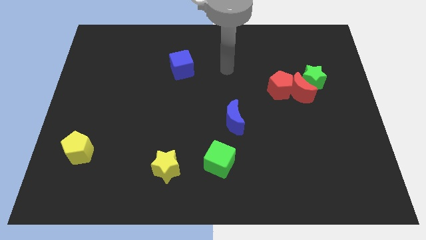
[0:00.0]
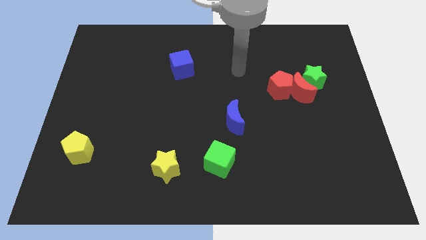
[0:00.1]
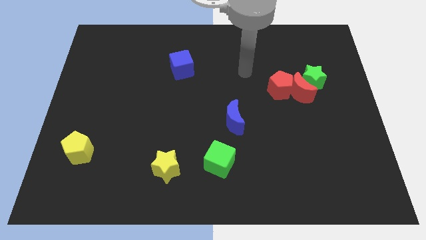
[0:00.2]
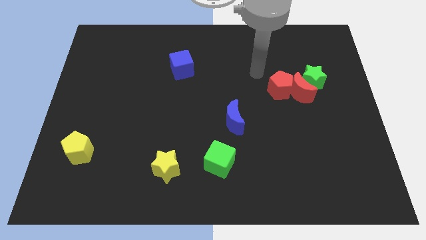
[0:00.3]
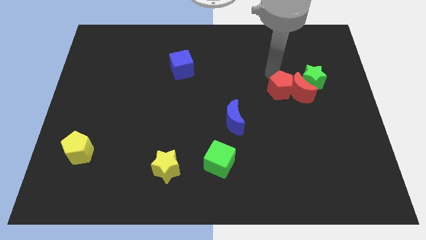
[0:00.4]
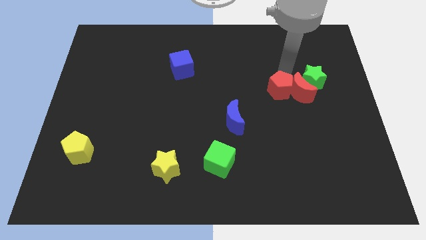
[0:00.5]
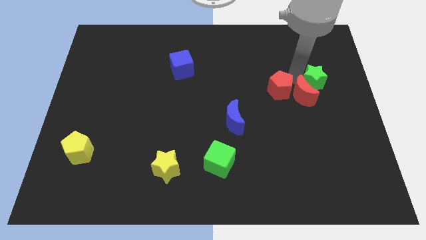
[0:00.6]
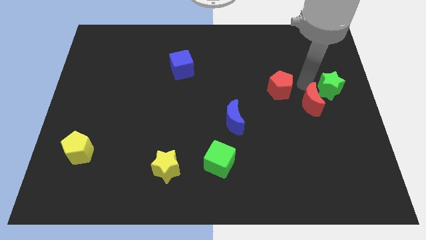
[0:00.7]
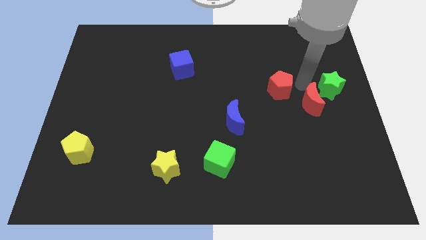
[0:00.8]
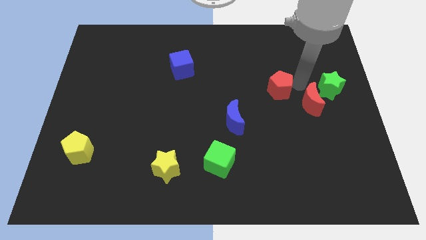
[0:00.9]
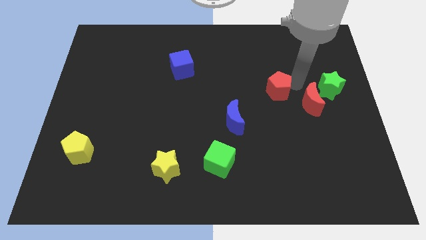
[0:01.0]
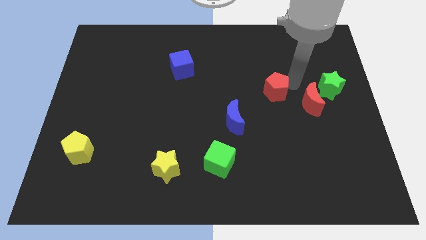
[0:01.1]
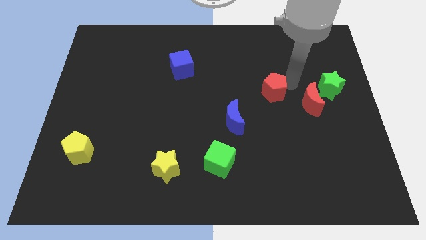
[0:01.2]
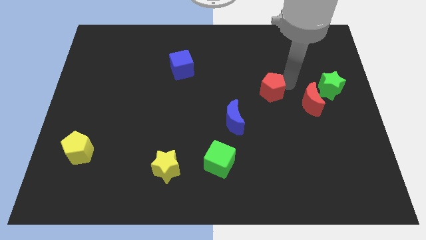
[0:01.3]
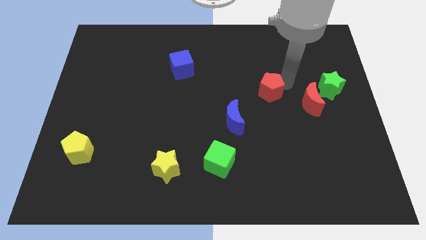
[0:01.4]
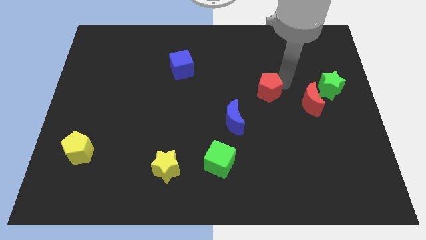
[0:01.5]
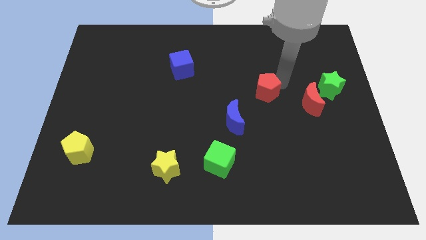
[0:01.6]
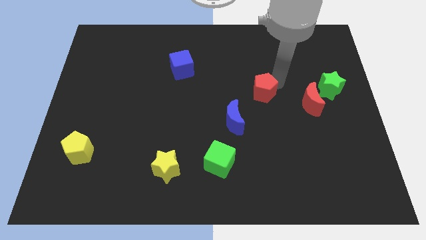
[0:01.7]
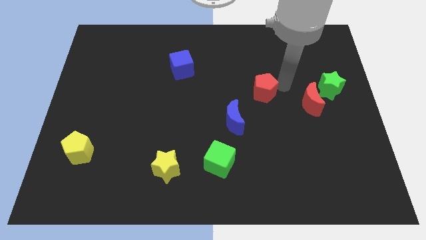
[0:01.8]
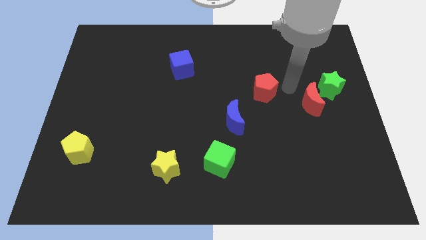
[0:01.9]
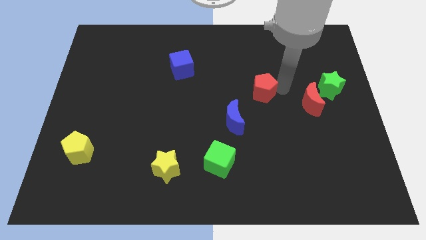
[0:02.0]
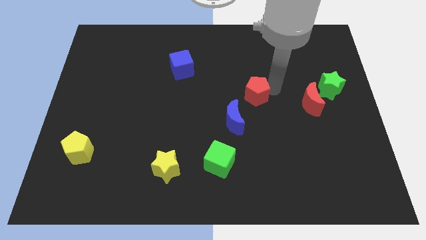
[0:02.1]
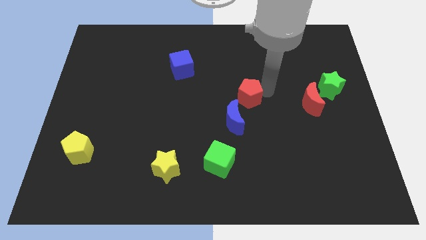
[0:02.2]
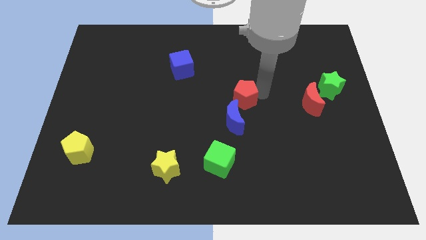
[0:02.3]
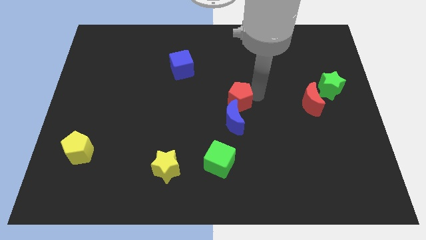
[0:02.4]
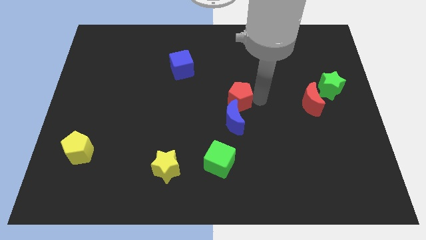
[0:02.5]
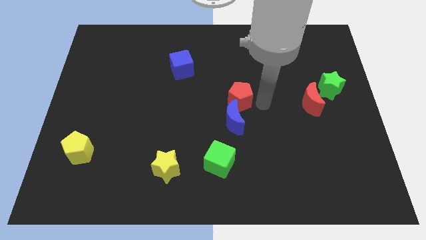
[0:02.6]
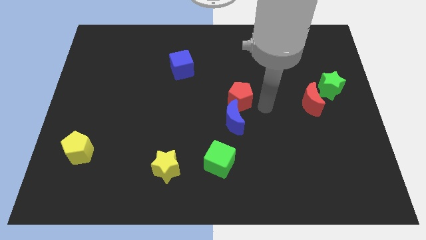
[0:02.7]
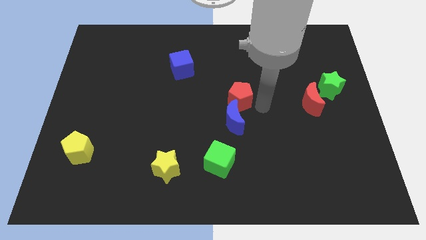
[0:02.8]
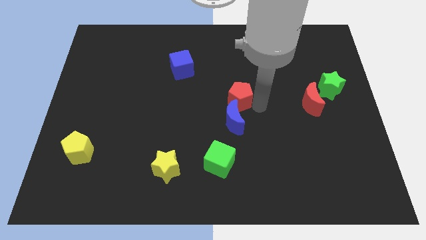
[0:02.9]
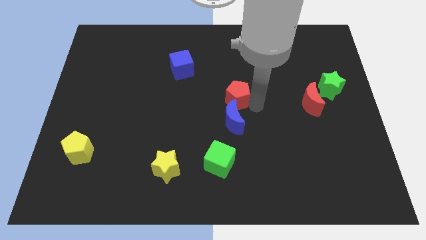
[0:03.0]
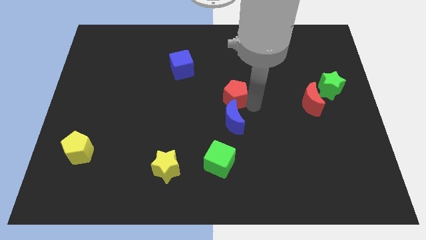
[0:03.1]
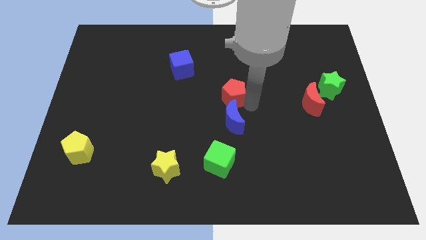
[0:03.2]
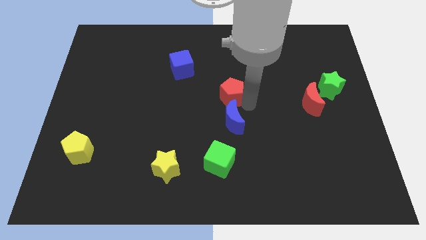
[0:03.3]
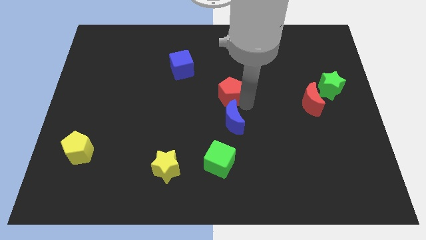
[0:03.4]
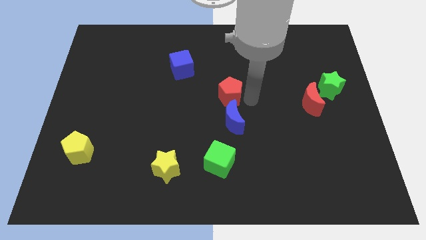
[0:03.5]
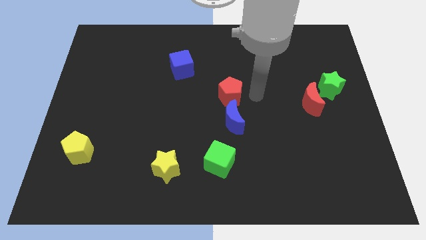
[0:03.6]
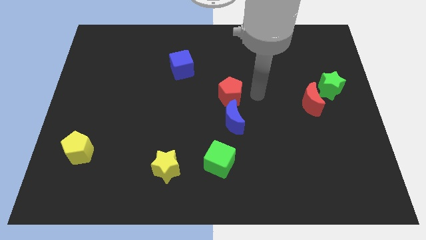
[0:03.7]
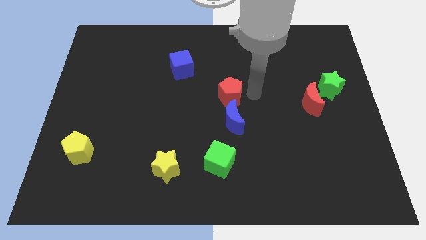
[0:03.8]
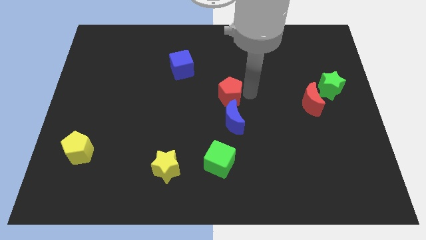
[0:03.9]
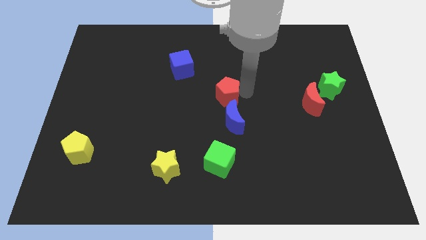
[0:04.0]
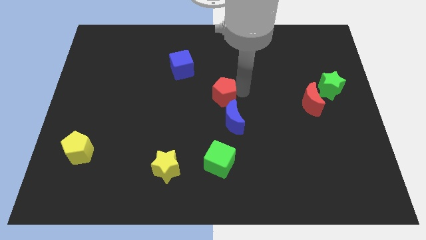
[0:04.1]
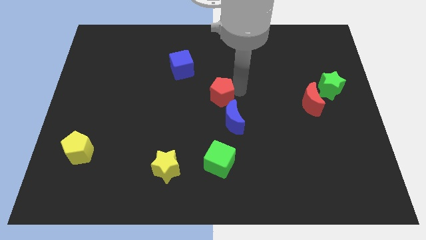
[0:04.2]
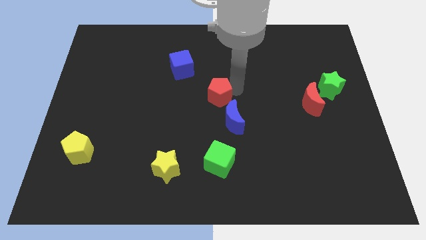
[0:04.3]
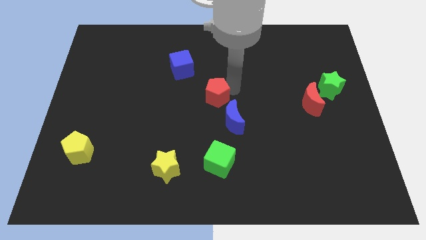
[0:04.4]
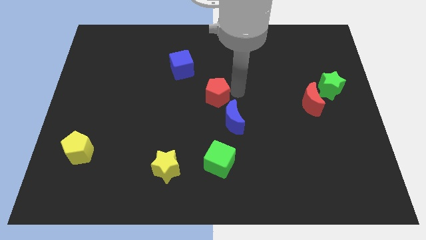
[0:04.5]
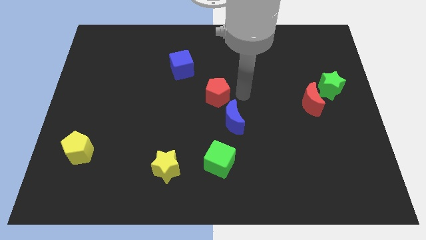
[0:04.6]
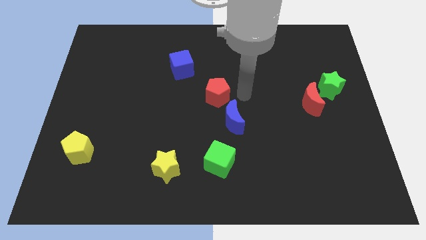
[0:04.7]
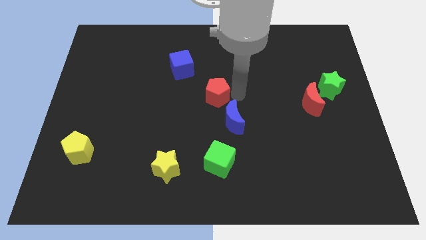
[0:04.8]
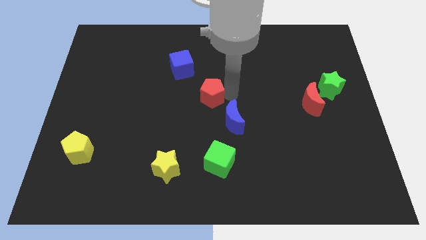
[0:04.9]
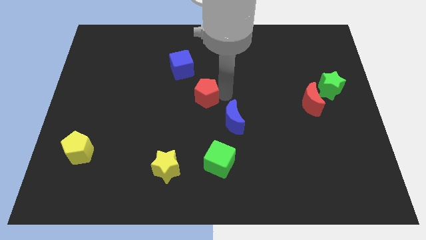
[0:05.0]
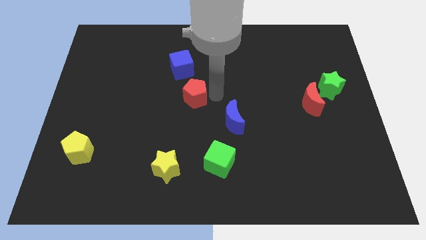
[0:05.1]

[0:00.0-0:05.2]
push the red pentagon left

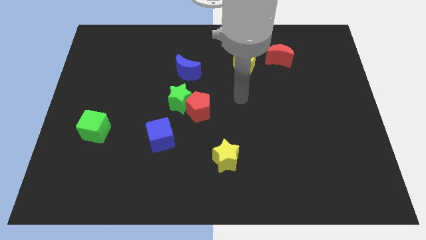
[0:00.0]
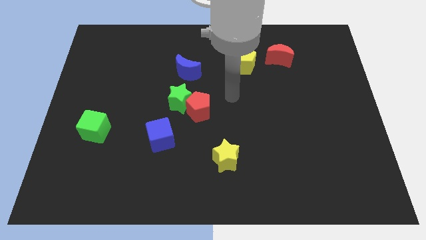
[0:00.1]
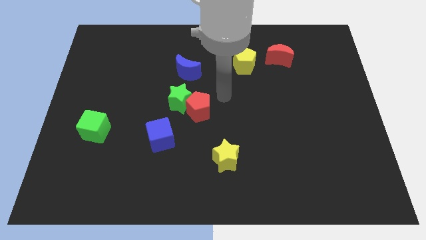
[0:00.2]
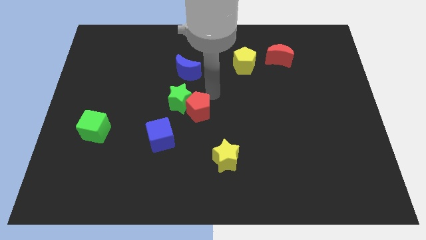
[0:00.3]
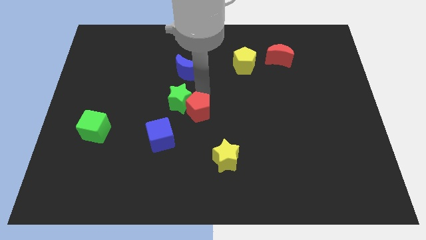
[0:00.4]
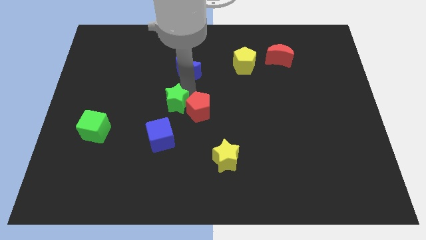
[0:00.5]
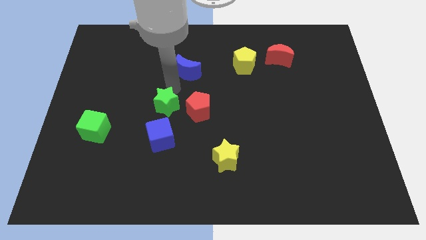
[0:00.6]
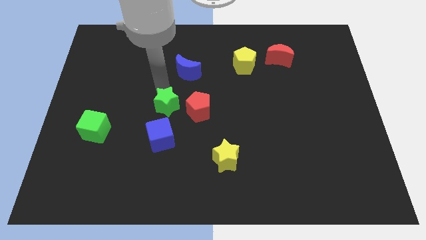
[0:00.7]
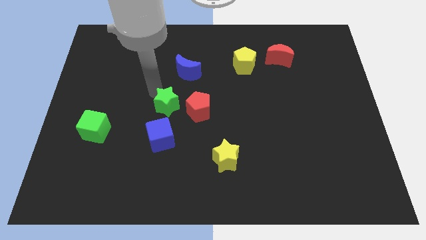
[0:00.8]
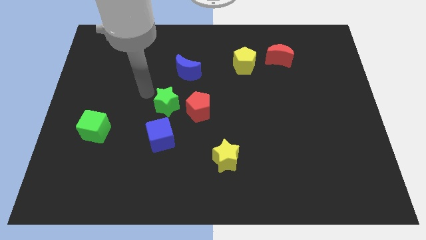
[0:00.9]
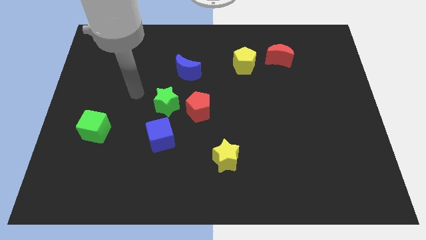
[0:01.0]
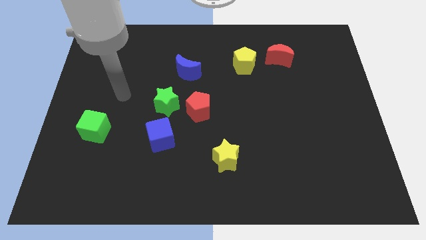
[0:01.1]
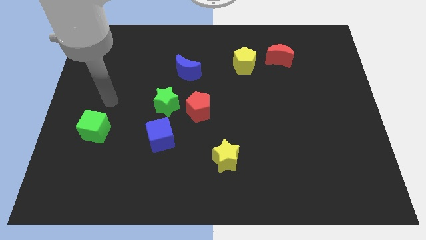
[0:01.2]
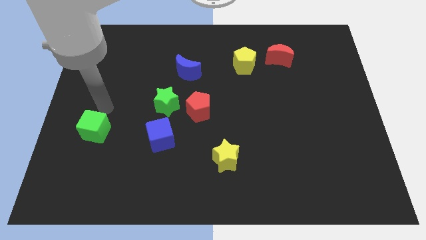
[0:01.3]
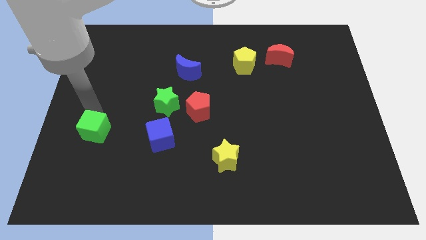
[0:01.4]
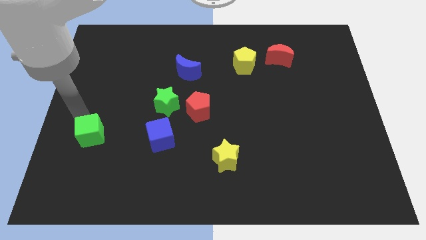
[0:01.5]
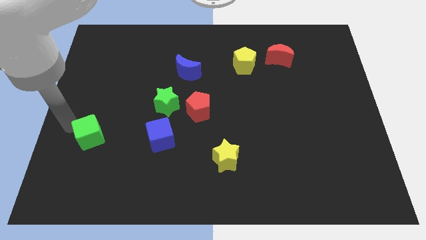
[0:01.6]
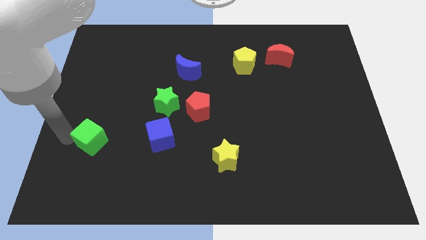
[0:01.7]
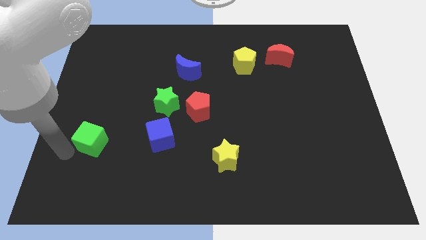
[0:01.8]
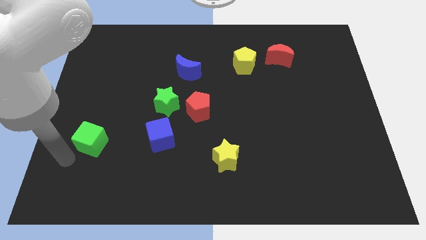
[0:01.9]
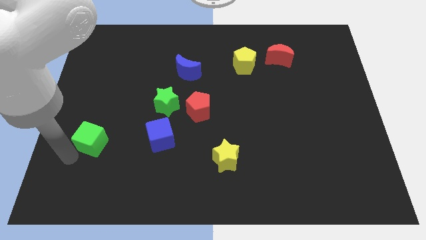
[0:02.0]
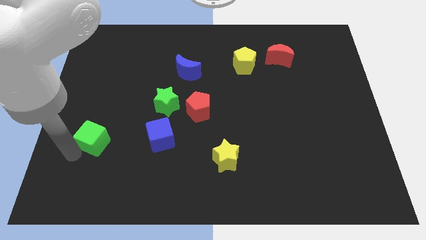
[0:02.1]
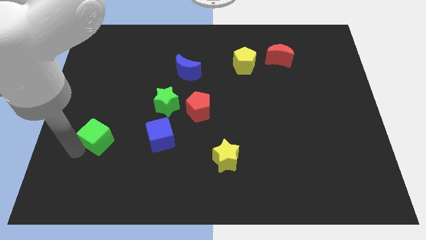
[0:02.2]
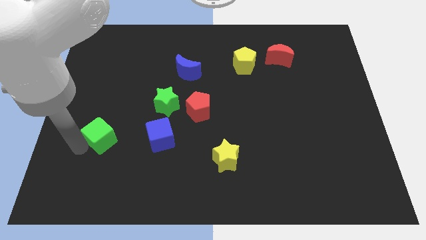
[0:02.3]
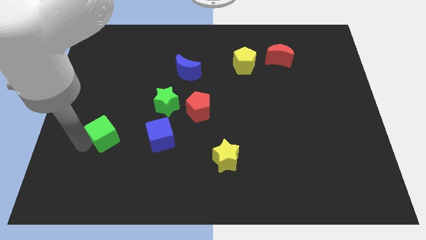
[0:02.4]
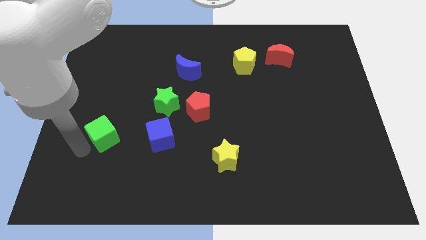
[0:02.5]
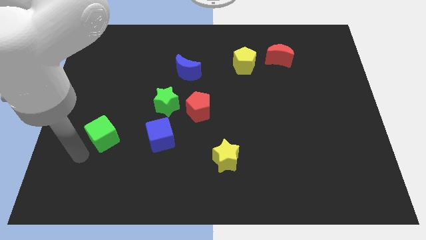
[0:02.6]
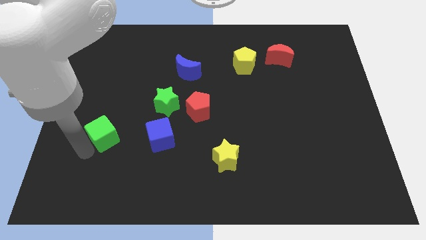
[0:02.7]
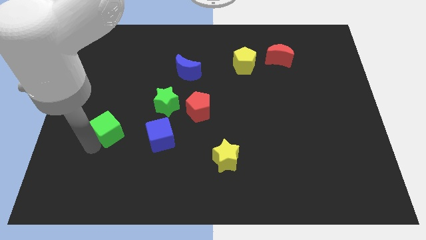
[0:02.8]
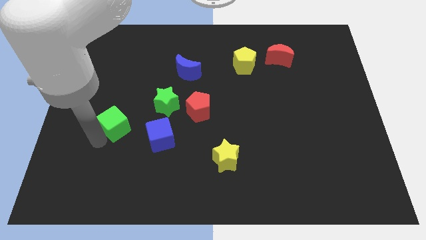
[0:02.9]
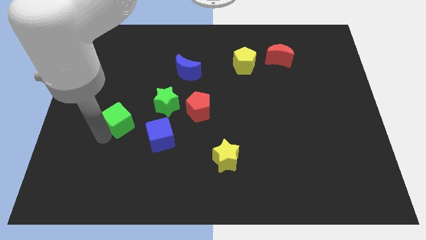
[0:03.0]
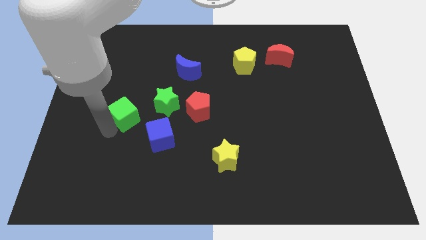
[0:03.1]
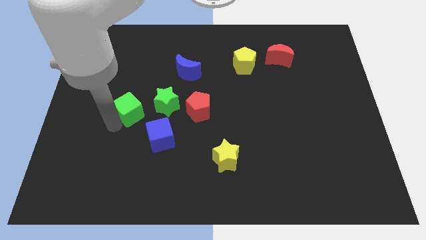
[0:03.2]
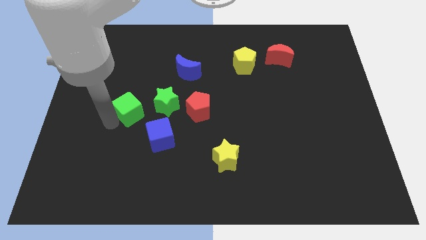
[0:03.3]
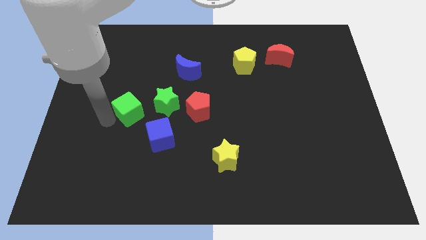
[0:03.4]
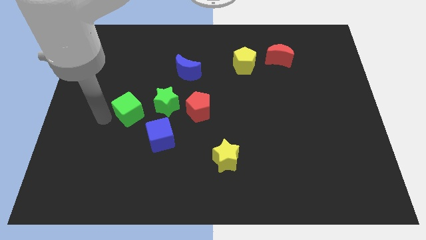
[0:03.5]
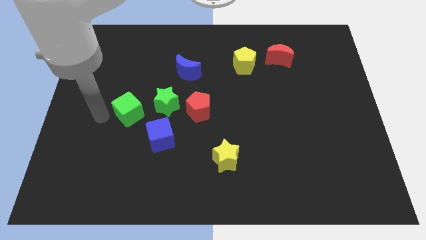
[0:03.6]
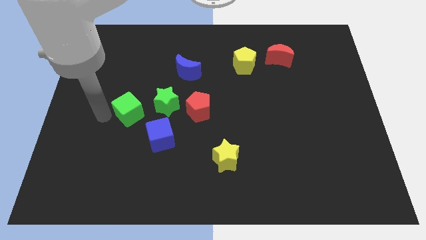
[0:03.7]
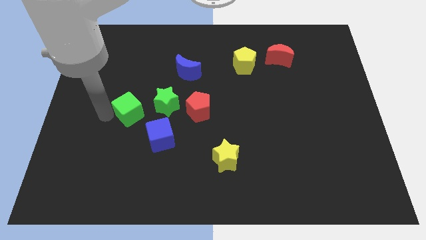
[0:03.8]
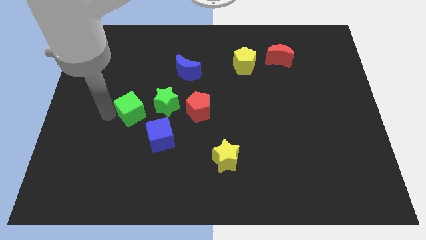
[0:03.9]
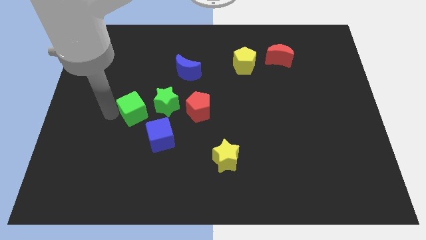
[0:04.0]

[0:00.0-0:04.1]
slightly push the green cube to the right
